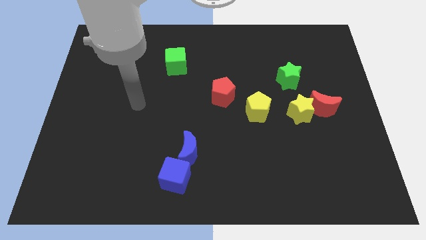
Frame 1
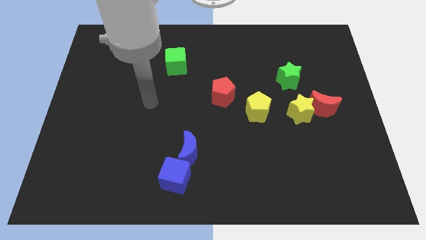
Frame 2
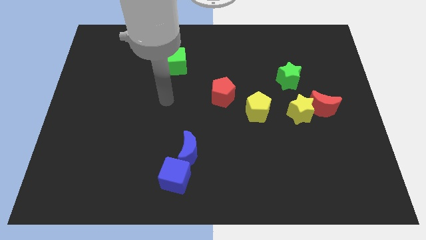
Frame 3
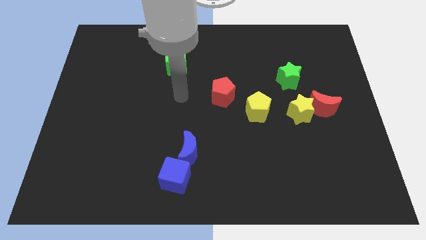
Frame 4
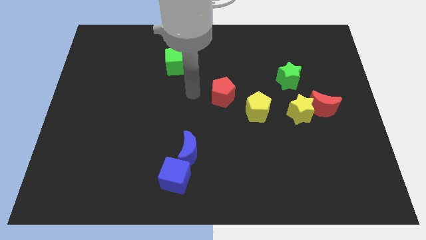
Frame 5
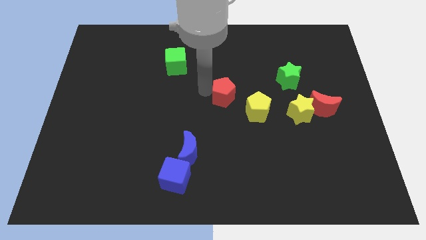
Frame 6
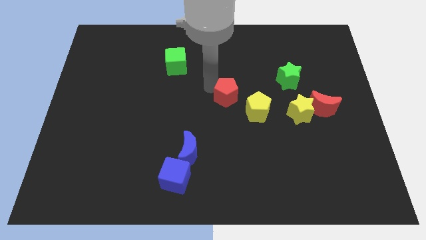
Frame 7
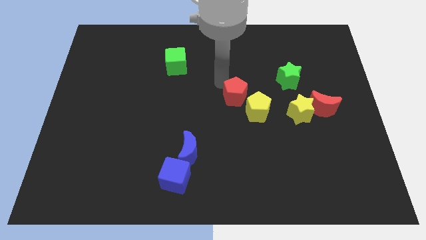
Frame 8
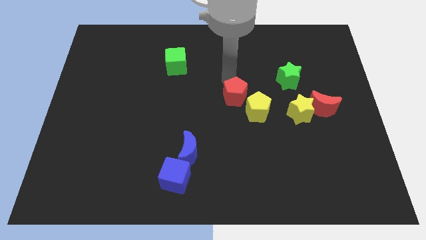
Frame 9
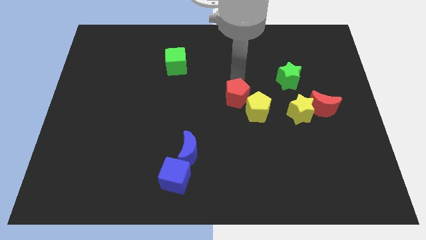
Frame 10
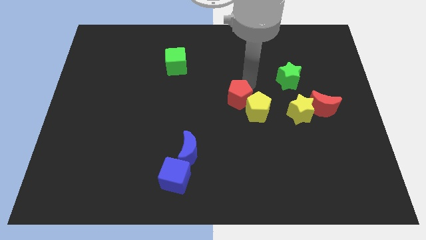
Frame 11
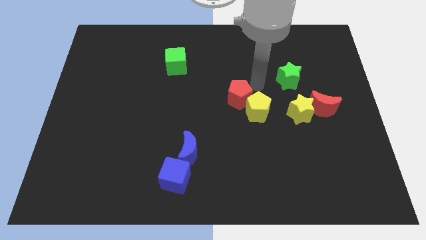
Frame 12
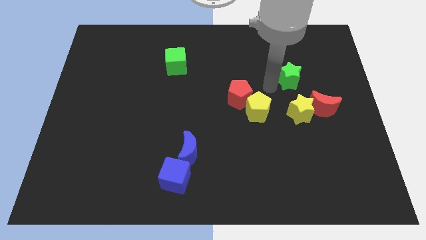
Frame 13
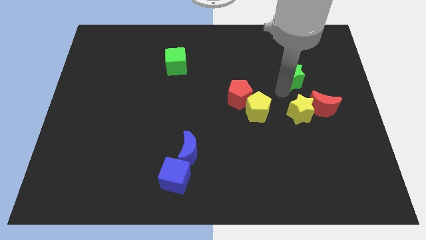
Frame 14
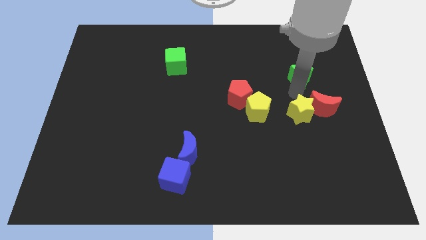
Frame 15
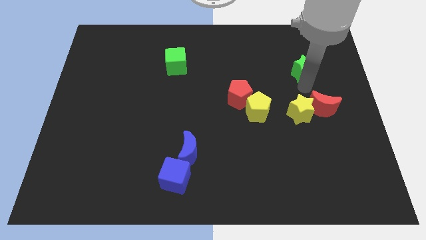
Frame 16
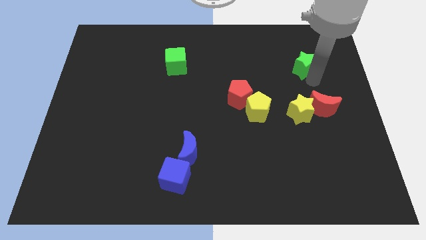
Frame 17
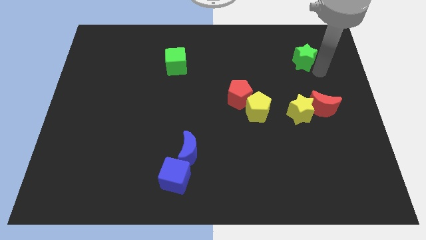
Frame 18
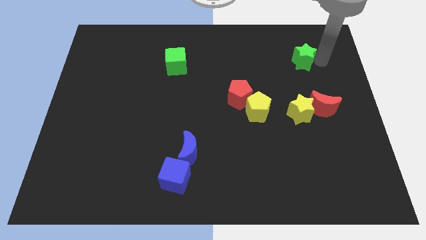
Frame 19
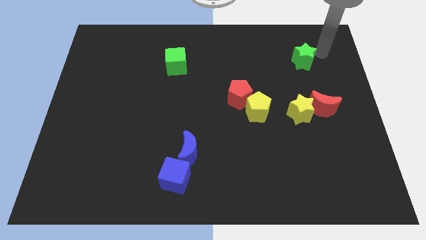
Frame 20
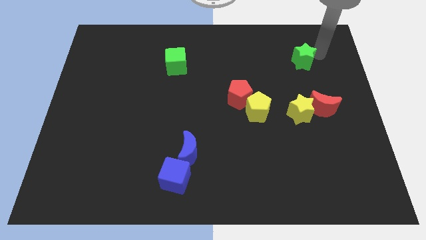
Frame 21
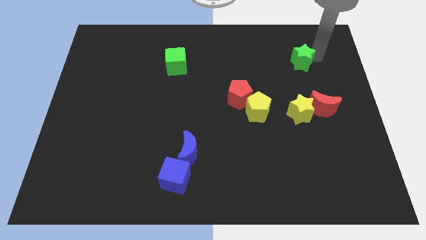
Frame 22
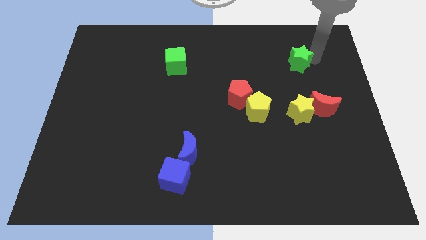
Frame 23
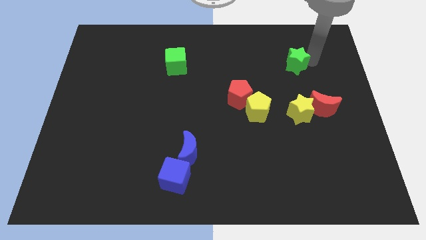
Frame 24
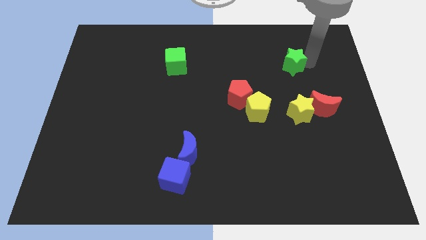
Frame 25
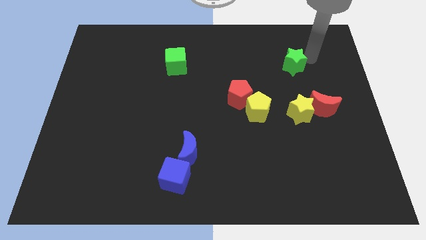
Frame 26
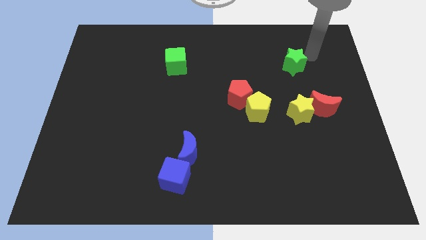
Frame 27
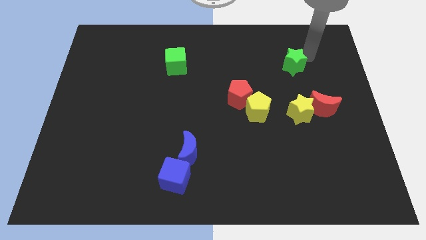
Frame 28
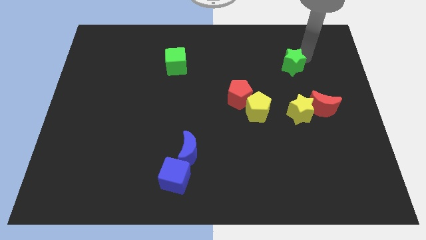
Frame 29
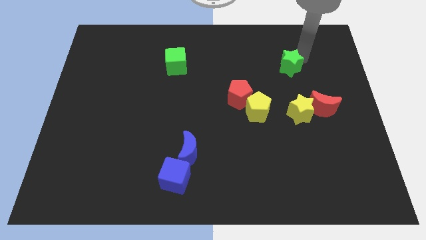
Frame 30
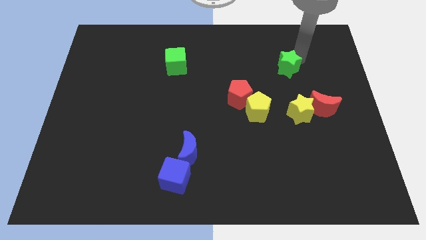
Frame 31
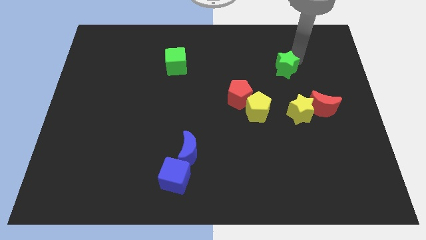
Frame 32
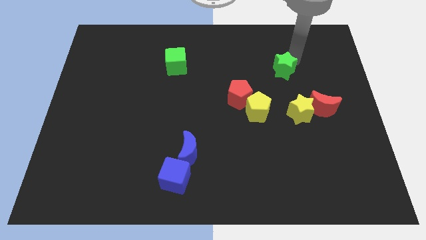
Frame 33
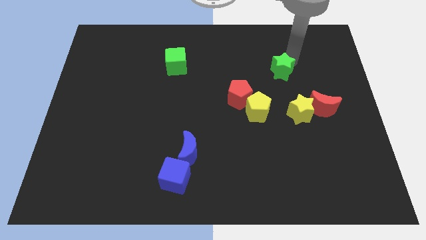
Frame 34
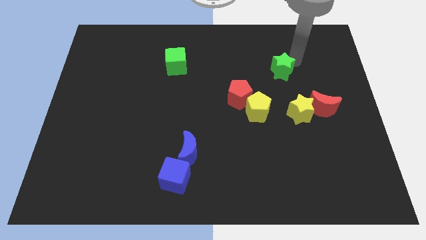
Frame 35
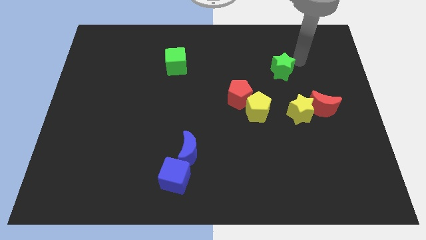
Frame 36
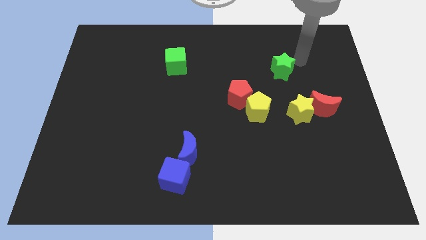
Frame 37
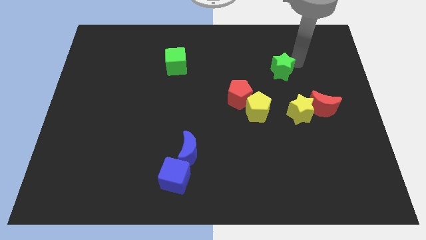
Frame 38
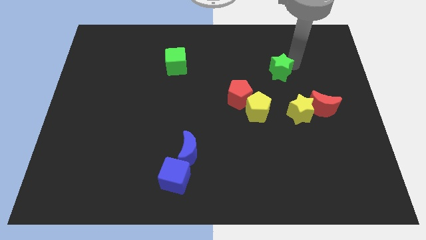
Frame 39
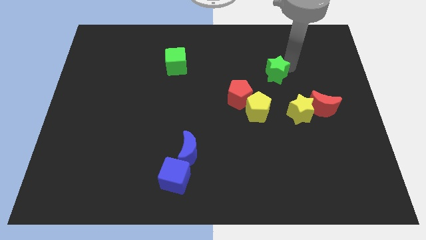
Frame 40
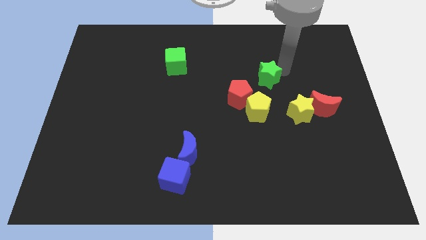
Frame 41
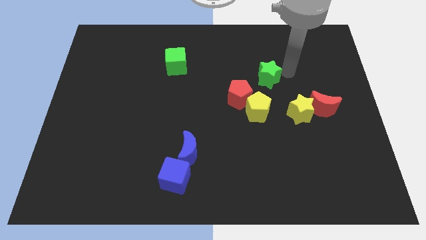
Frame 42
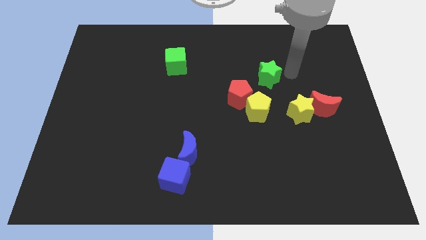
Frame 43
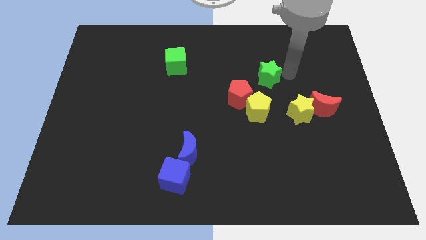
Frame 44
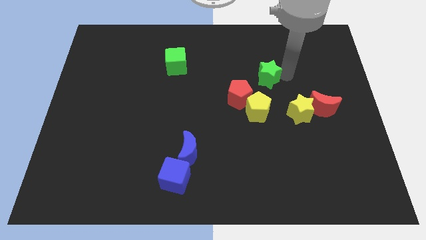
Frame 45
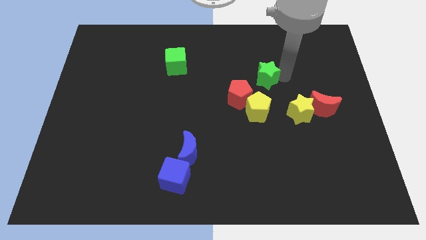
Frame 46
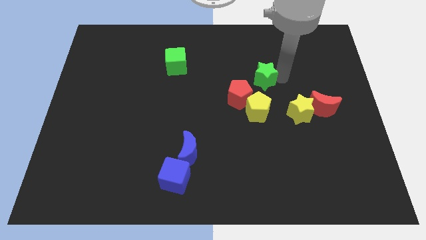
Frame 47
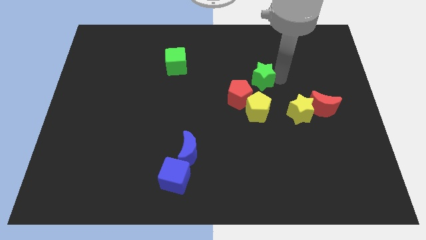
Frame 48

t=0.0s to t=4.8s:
slightly slide the green star to the left

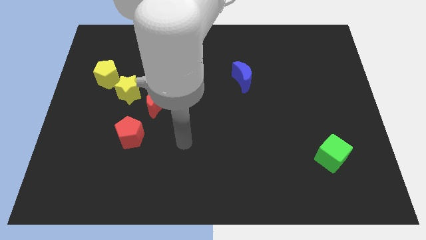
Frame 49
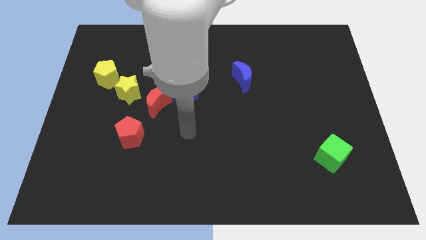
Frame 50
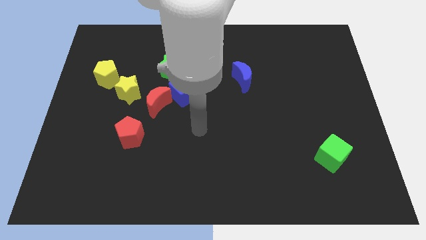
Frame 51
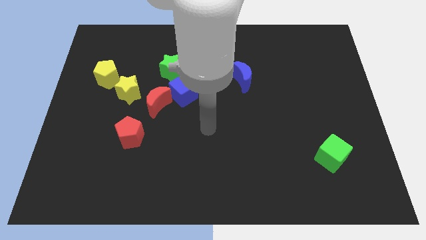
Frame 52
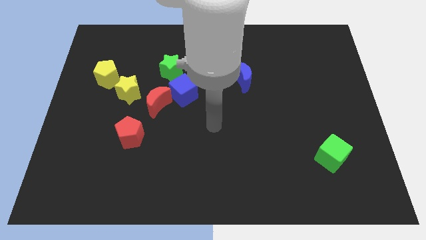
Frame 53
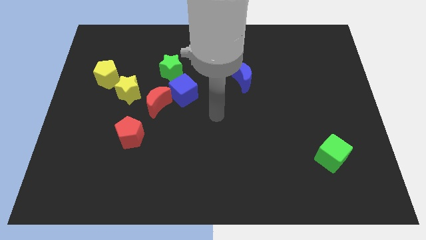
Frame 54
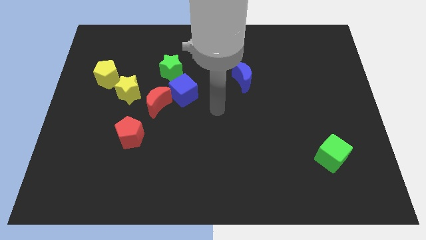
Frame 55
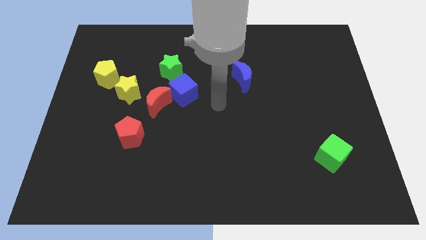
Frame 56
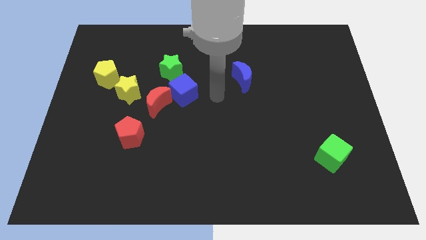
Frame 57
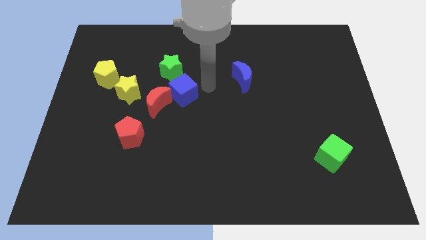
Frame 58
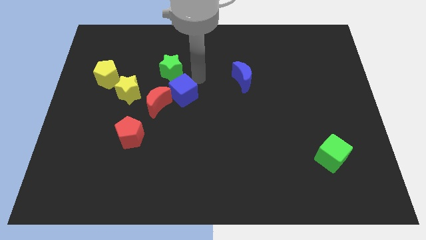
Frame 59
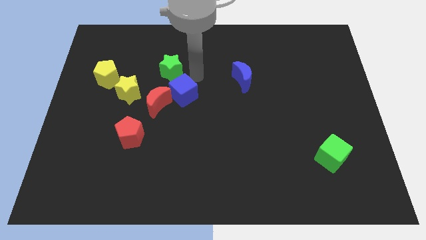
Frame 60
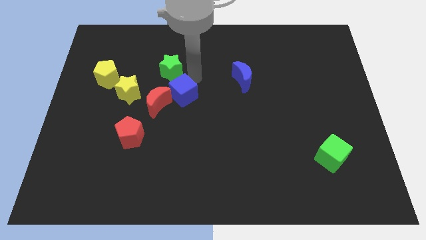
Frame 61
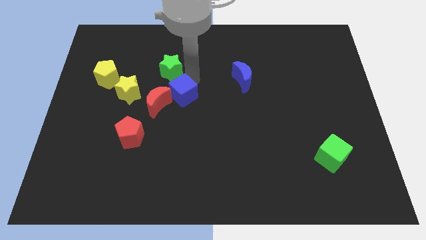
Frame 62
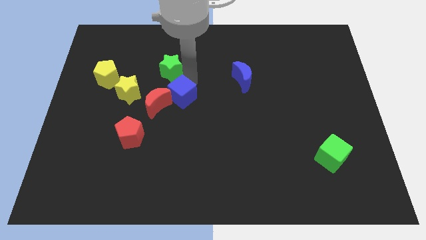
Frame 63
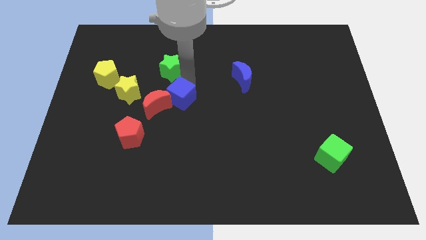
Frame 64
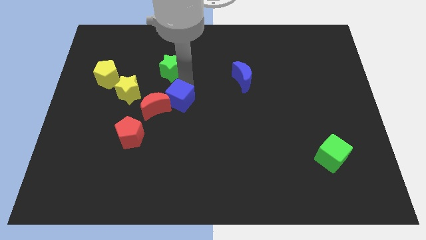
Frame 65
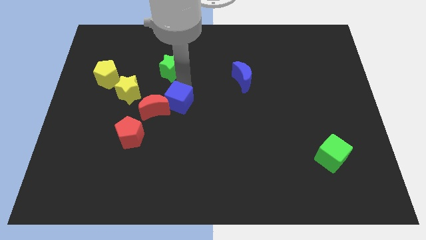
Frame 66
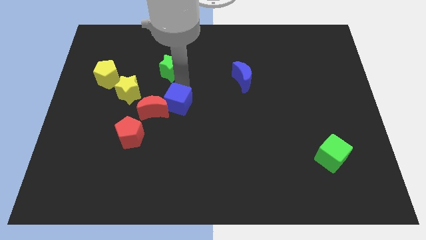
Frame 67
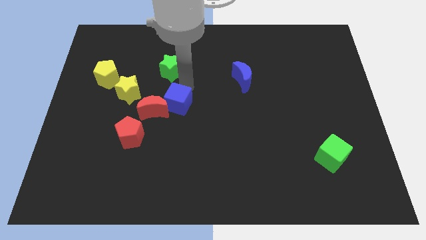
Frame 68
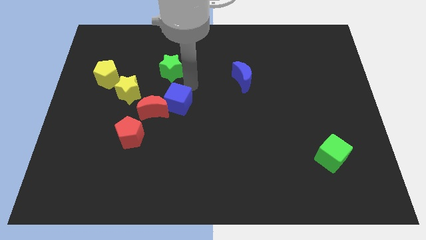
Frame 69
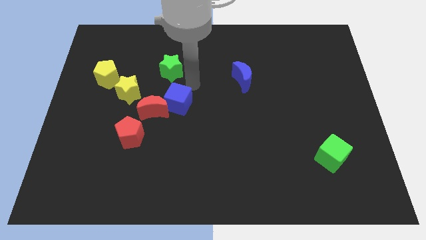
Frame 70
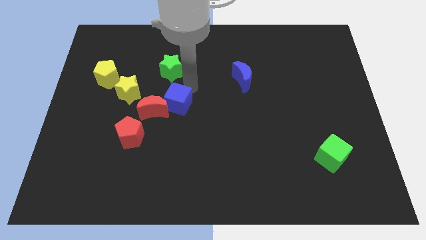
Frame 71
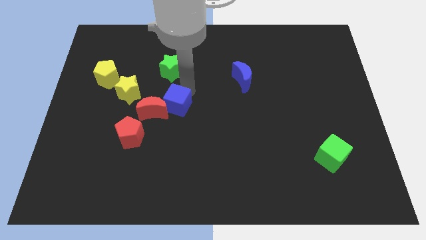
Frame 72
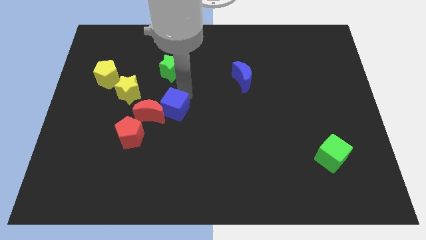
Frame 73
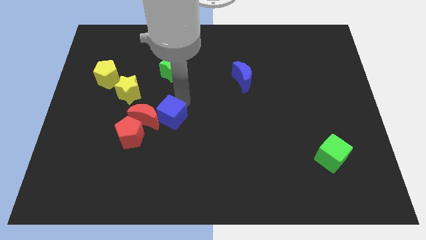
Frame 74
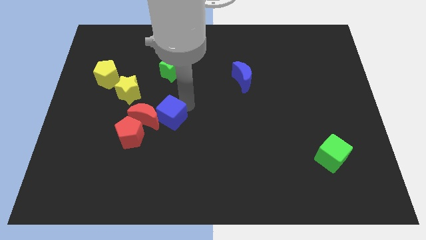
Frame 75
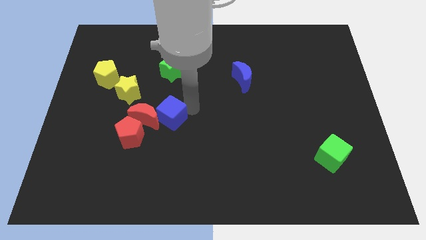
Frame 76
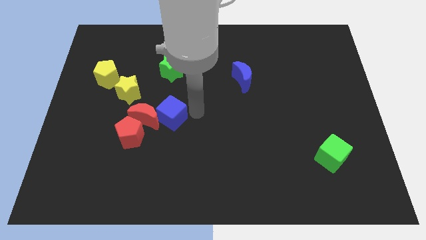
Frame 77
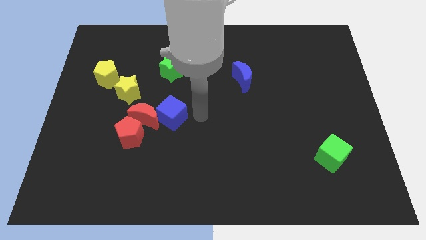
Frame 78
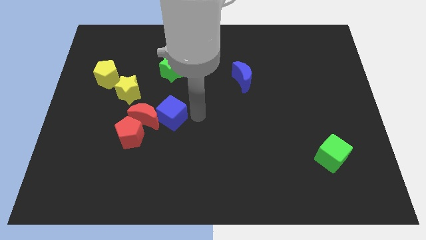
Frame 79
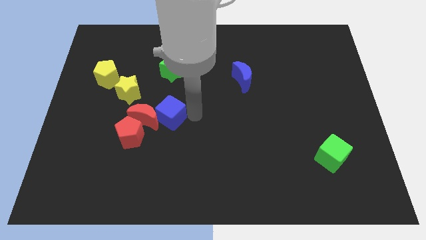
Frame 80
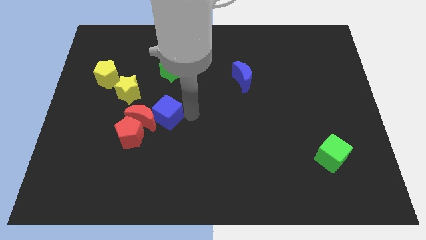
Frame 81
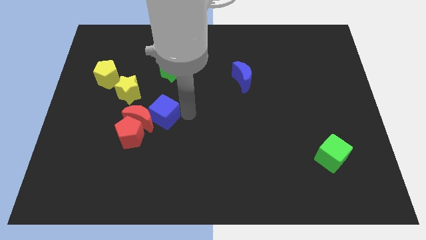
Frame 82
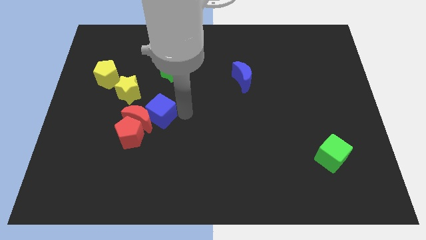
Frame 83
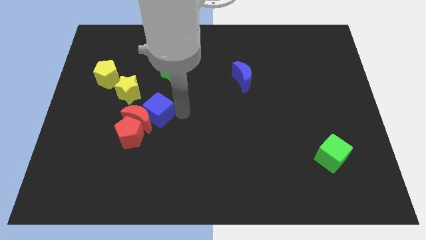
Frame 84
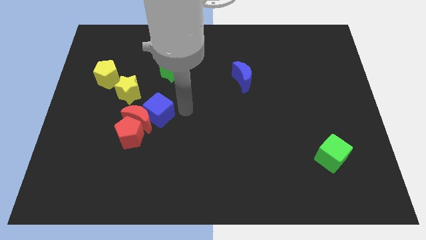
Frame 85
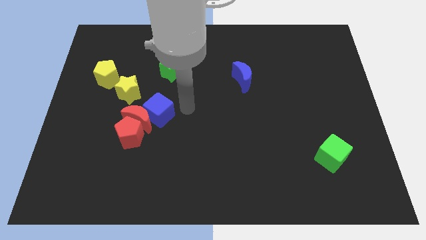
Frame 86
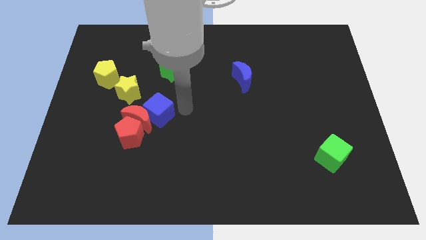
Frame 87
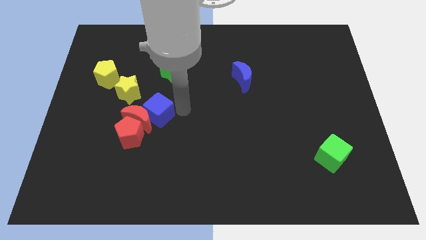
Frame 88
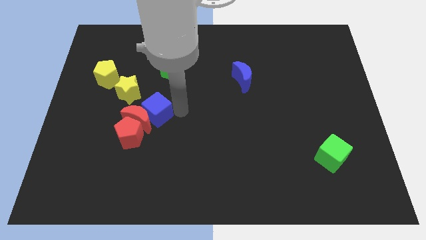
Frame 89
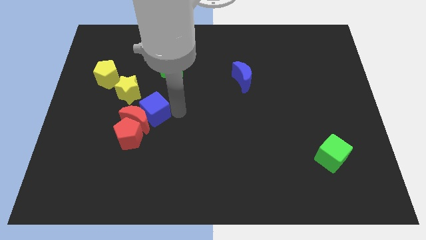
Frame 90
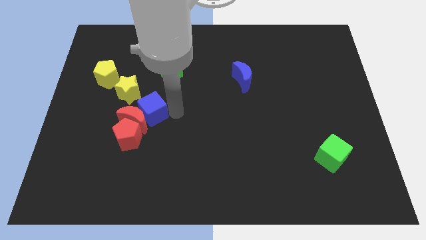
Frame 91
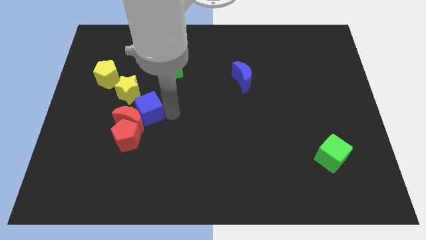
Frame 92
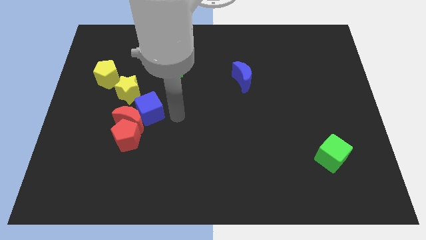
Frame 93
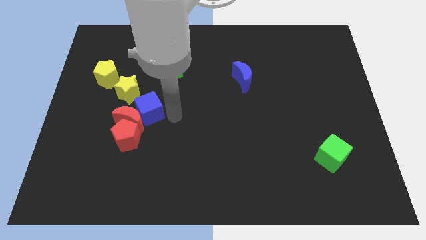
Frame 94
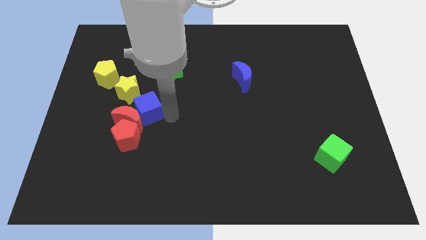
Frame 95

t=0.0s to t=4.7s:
move the blue cube left a bit
